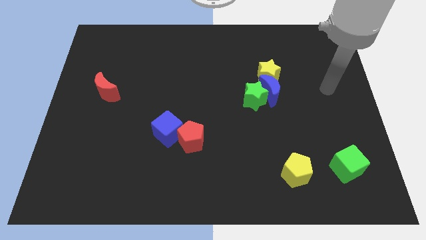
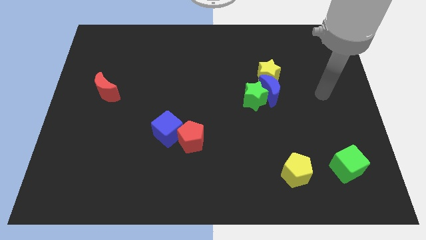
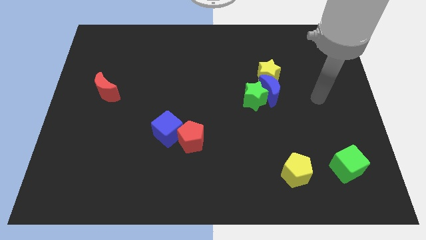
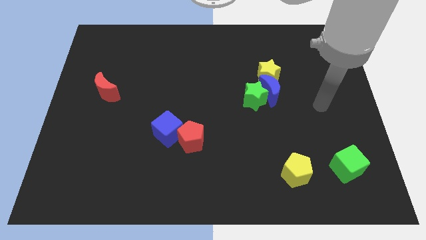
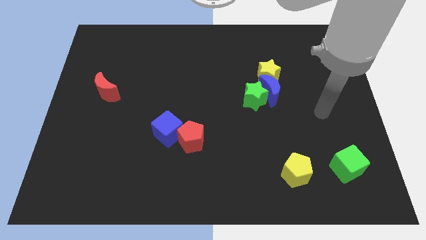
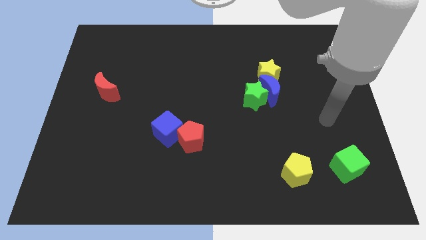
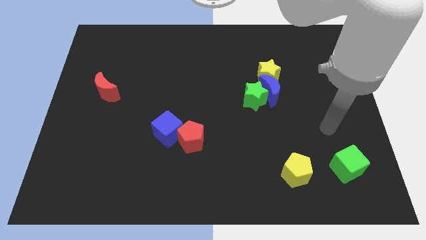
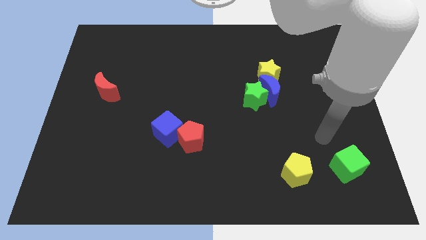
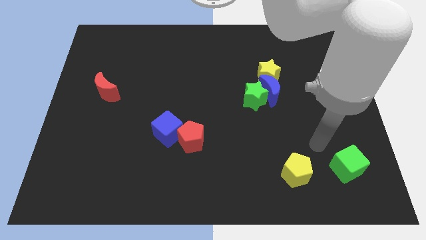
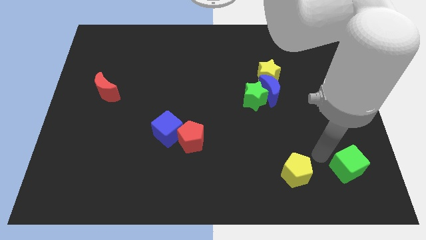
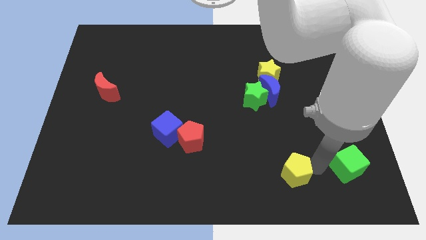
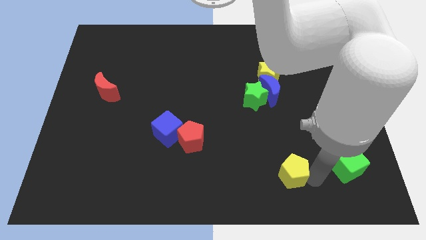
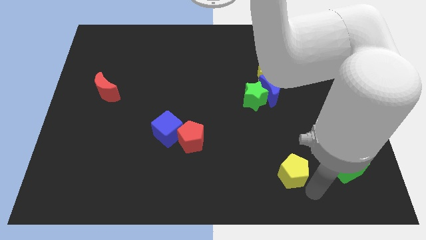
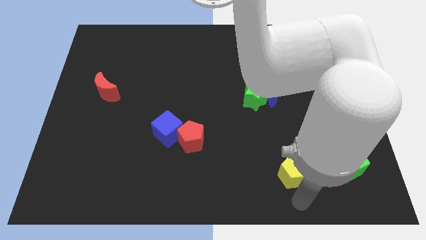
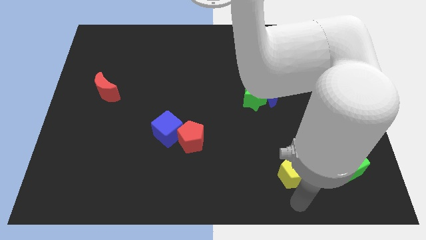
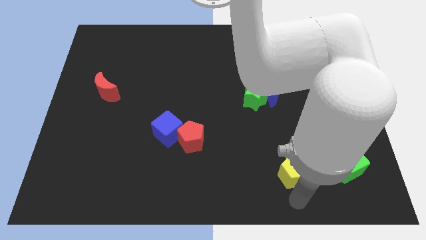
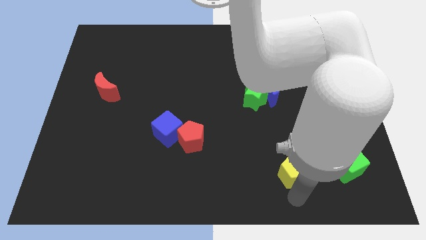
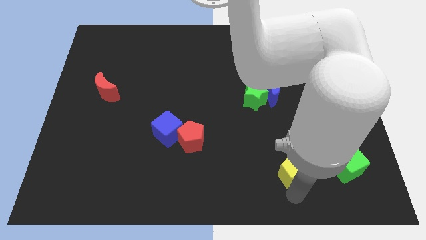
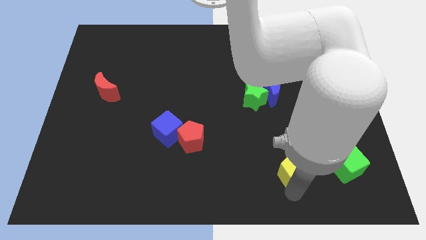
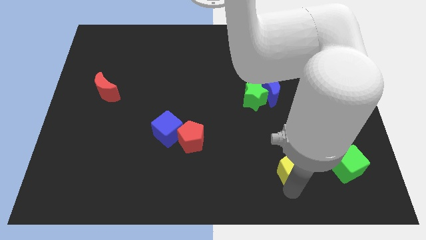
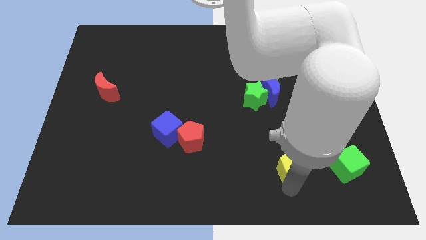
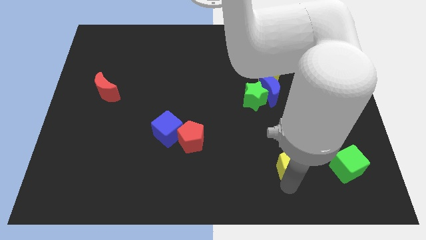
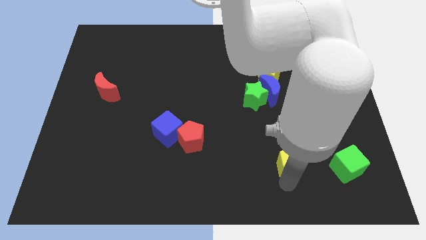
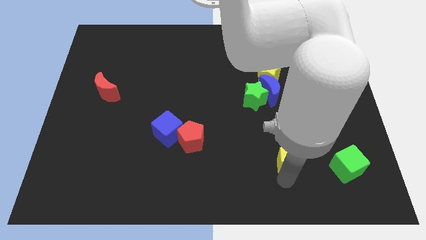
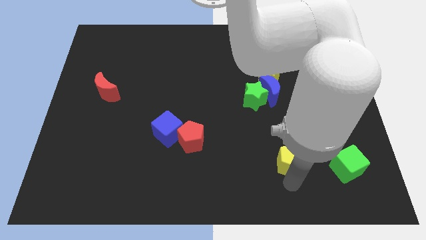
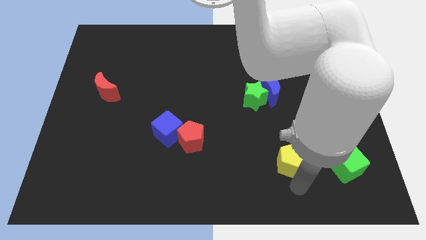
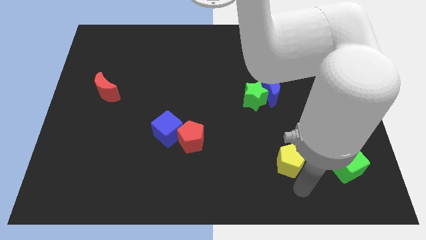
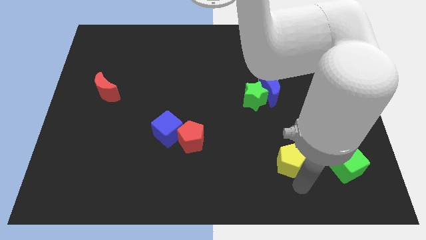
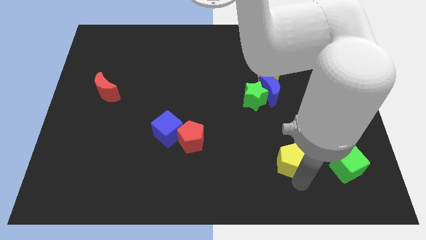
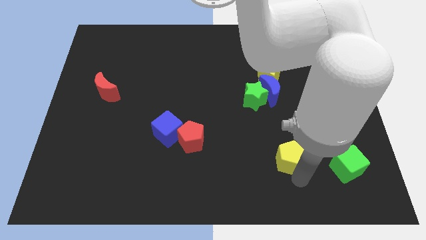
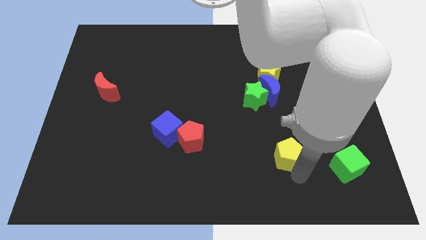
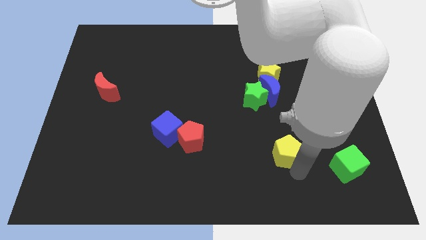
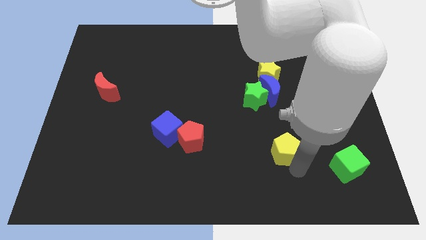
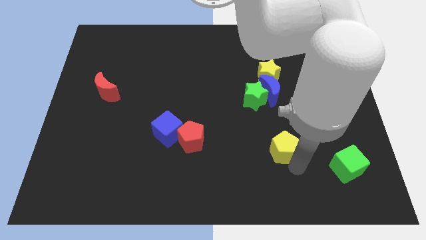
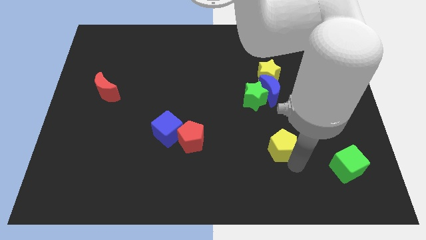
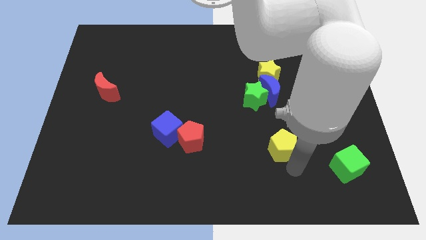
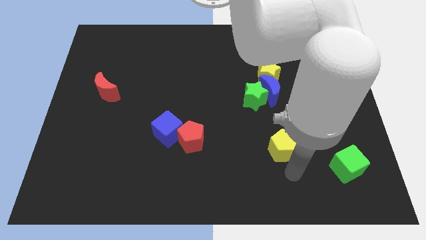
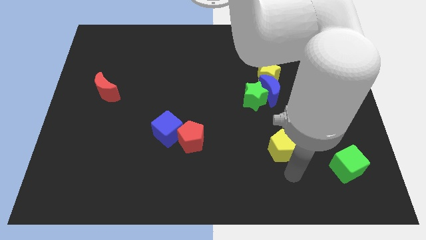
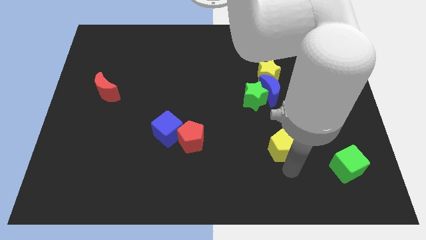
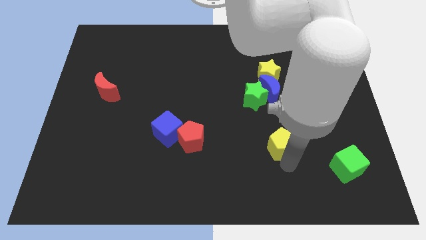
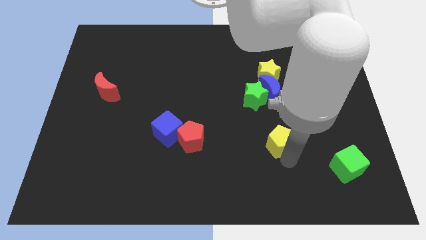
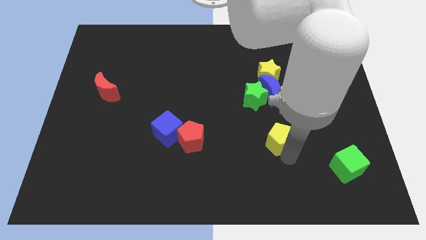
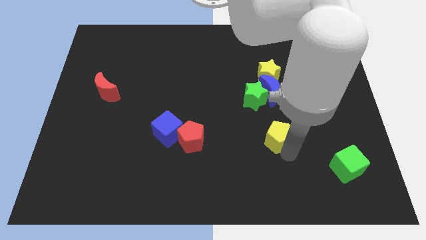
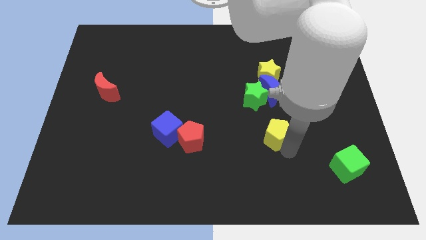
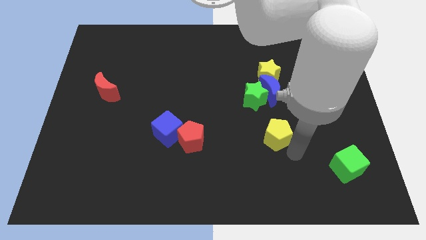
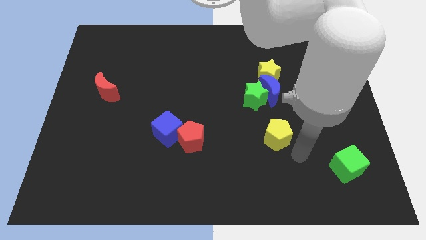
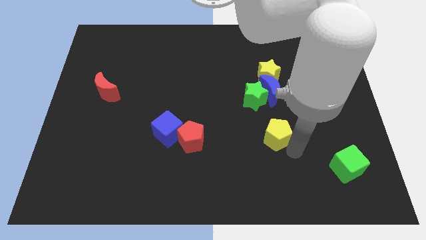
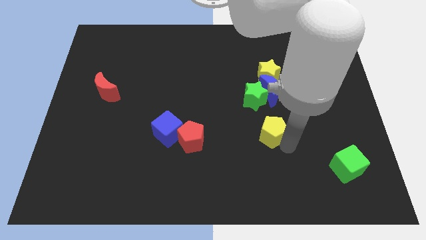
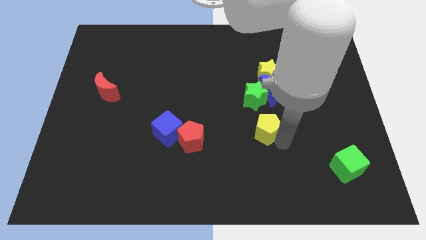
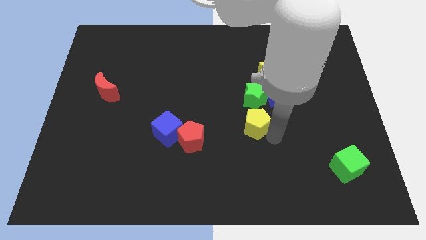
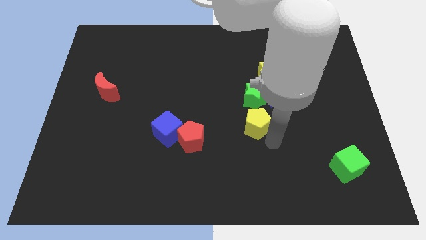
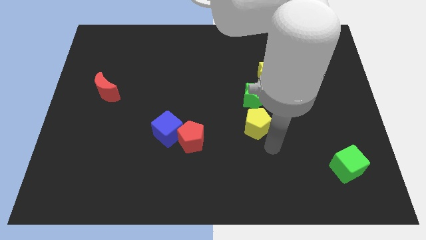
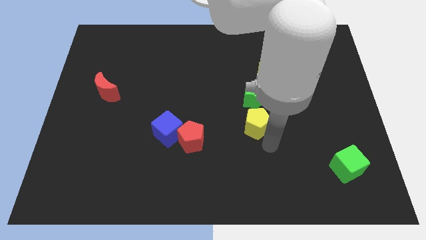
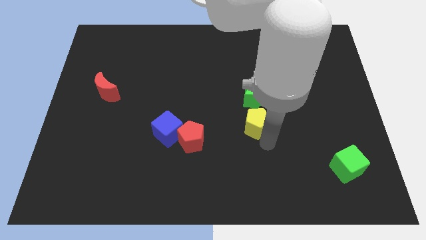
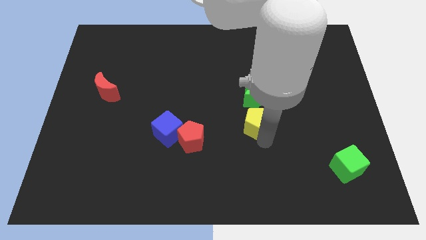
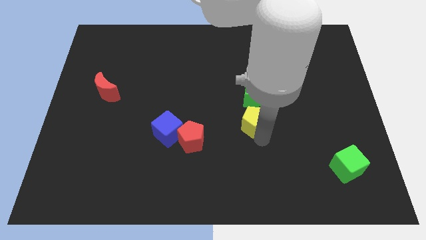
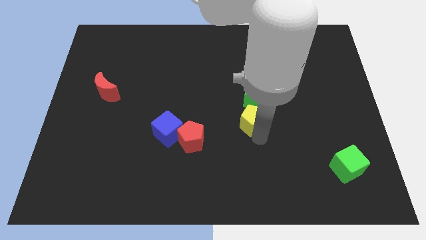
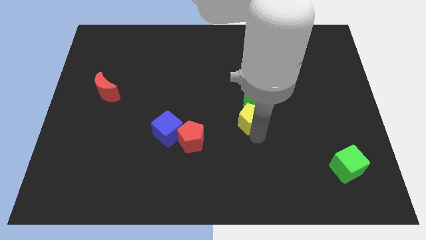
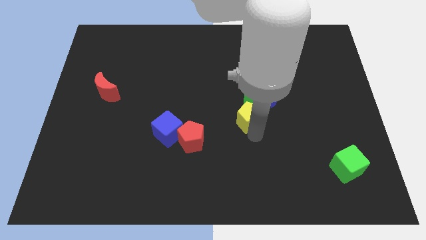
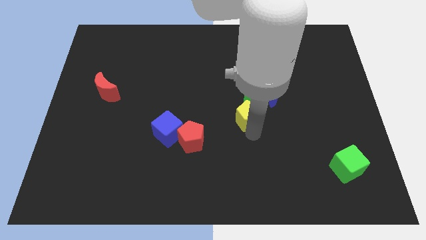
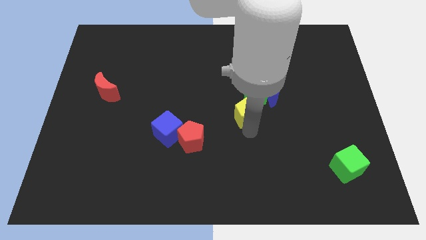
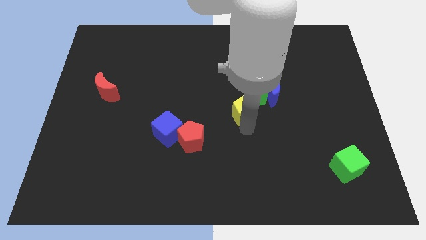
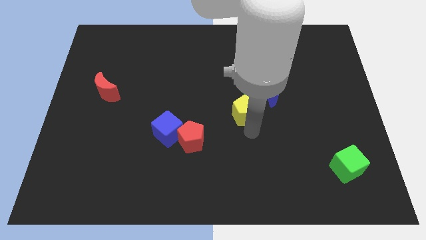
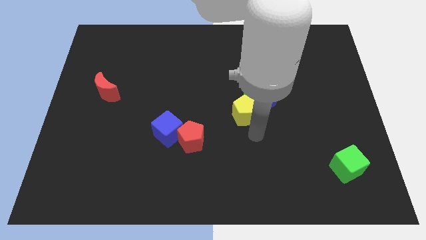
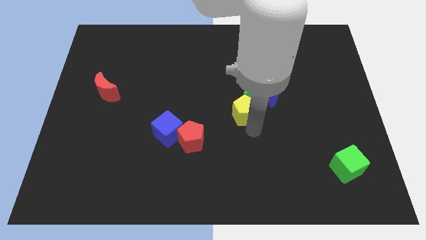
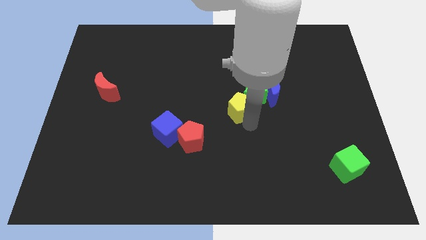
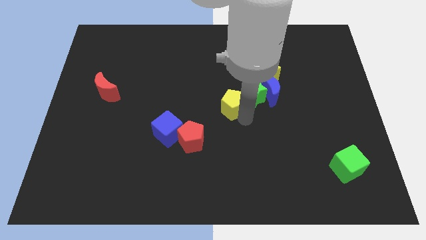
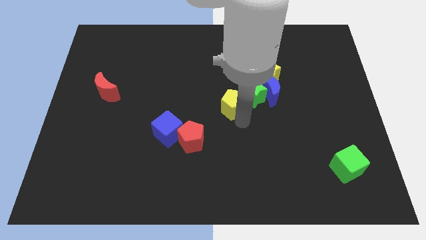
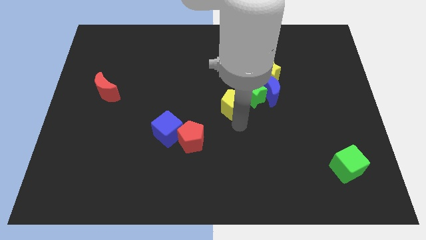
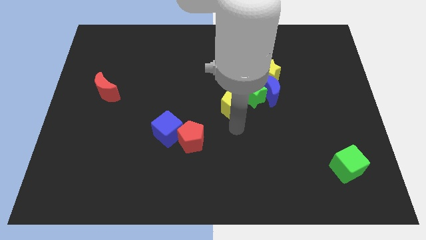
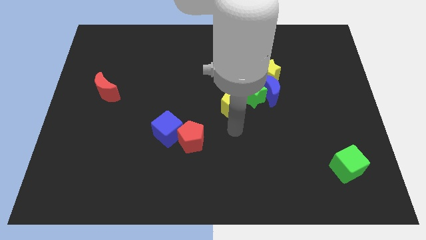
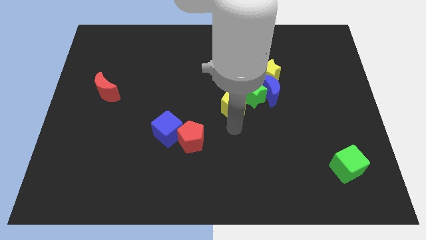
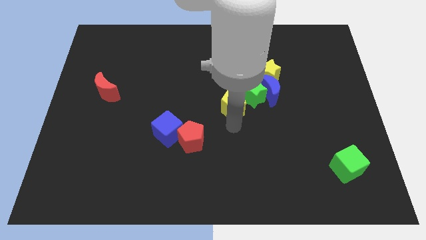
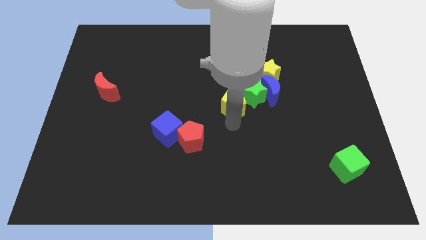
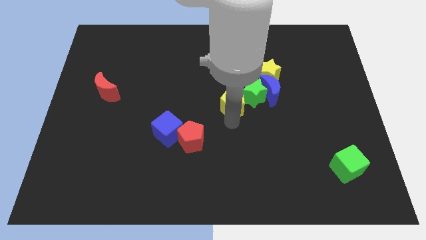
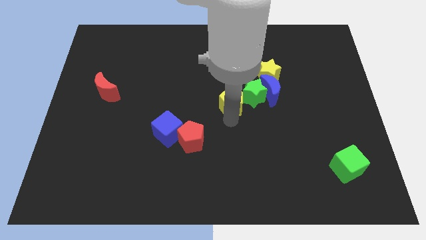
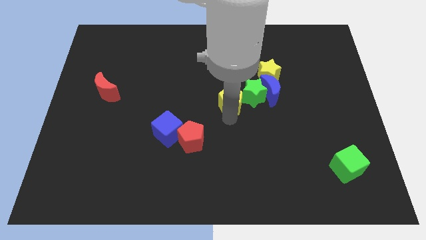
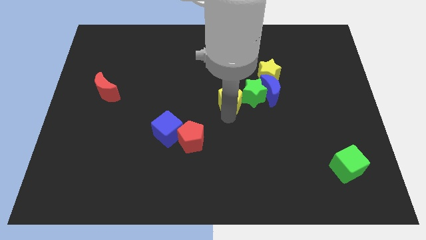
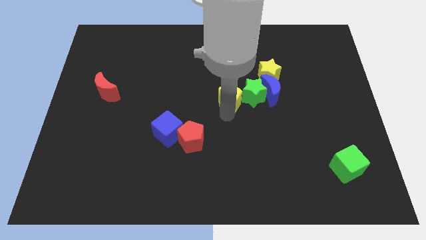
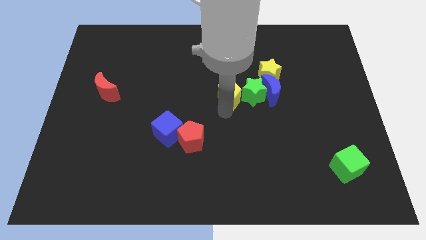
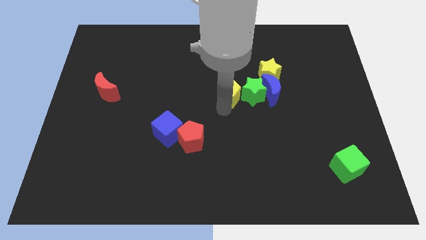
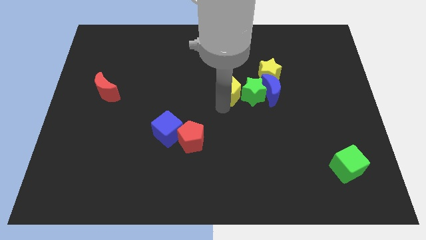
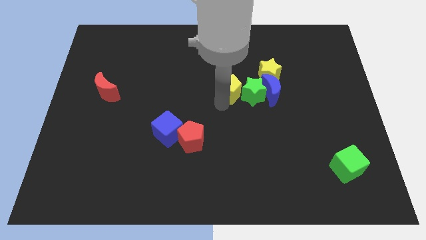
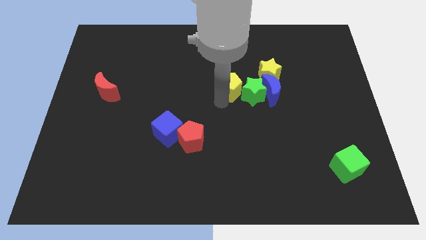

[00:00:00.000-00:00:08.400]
put the yellow pentagon left of the yellow star
